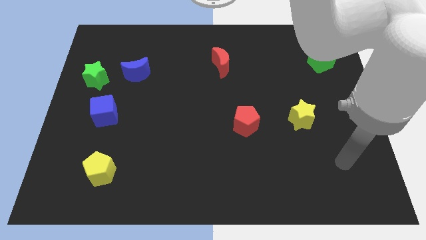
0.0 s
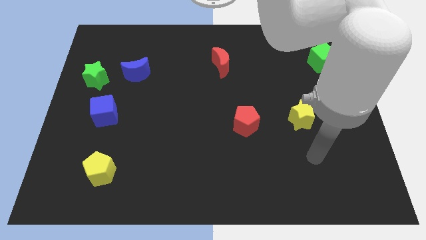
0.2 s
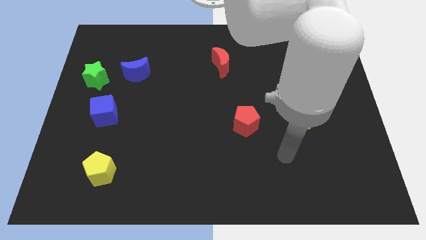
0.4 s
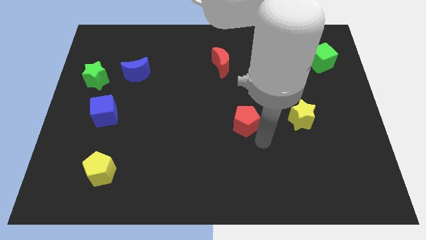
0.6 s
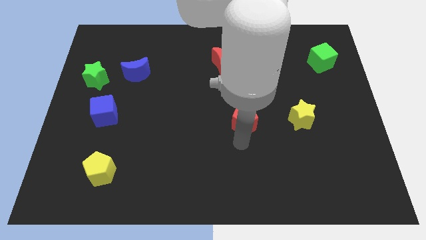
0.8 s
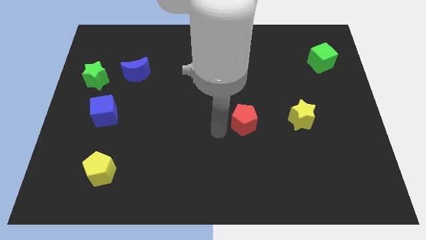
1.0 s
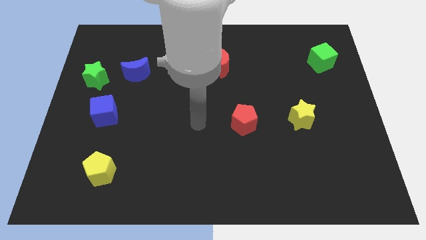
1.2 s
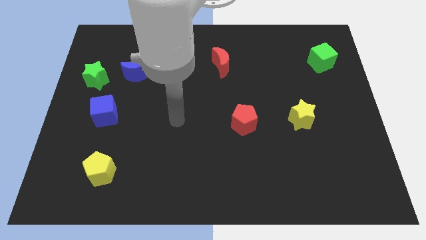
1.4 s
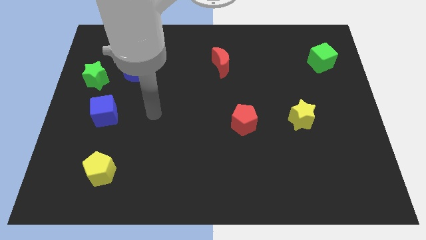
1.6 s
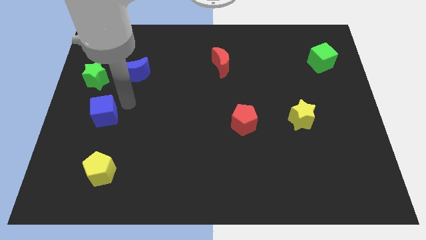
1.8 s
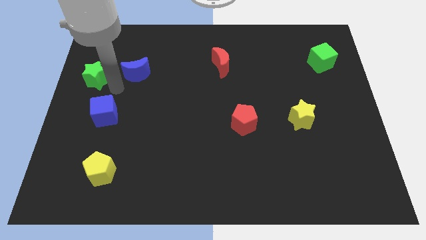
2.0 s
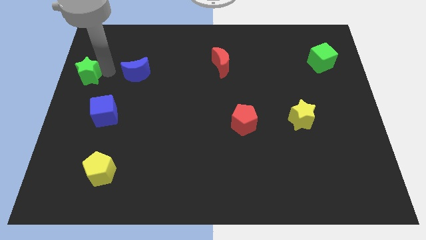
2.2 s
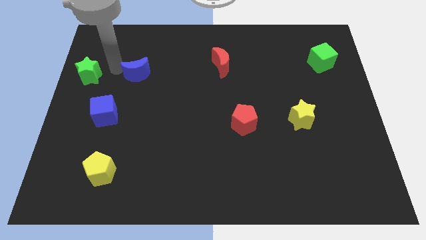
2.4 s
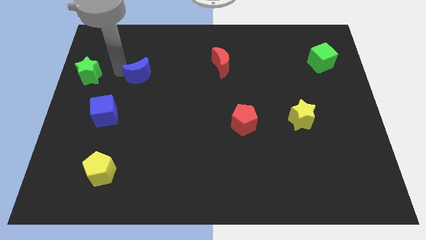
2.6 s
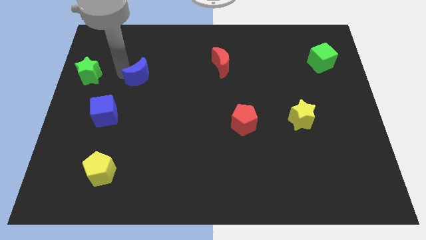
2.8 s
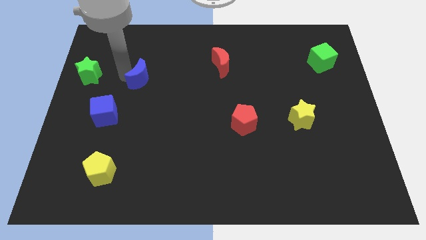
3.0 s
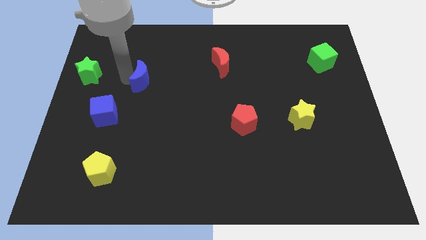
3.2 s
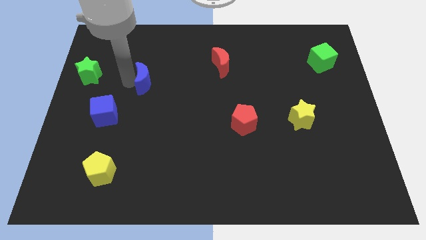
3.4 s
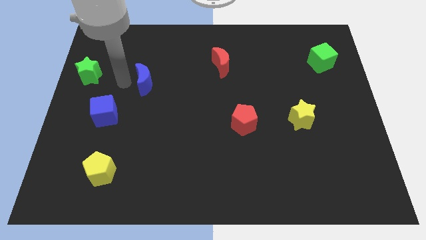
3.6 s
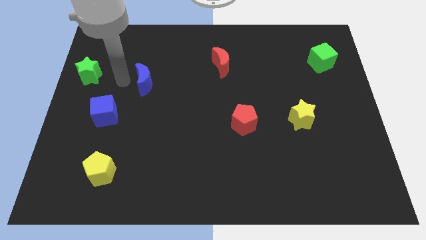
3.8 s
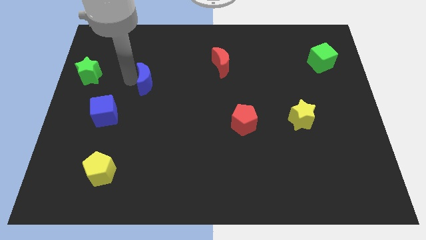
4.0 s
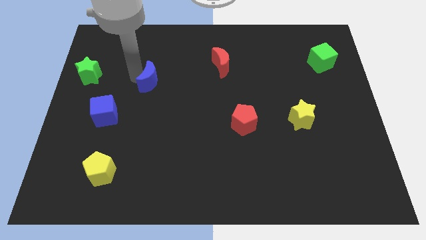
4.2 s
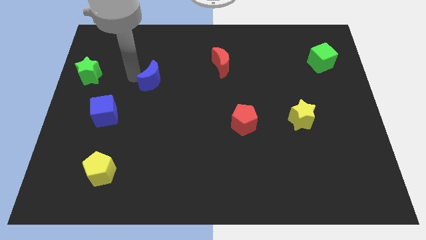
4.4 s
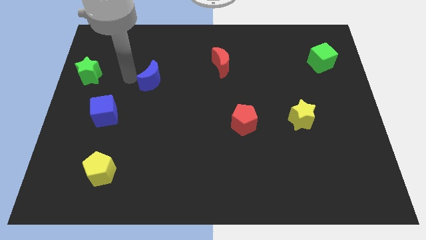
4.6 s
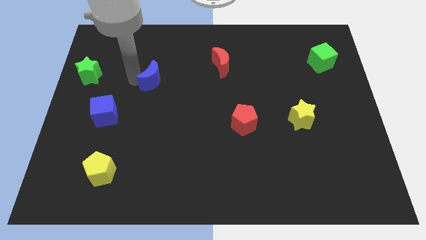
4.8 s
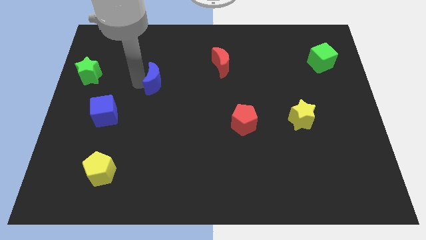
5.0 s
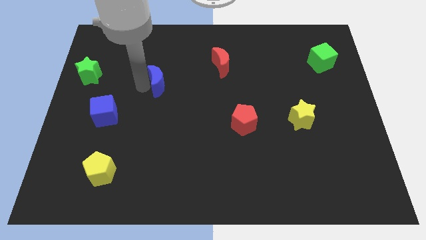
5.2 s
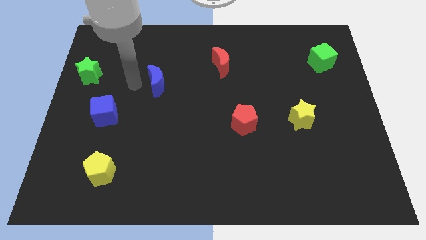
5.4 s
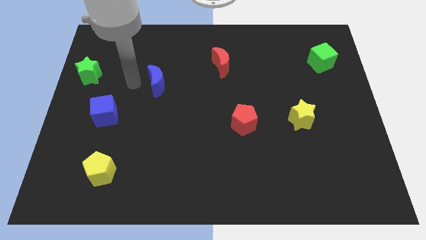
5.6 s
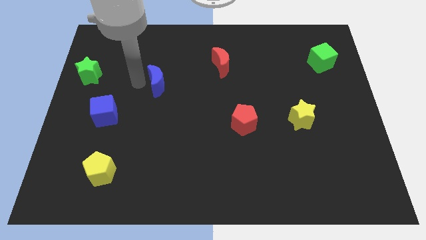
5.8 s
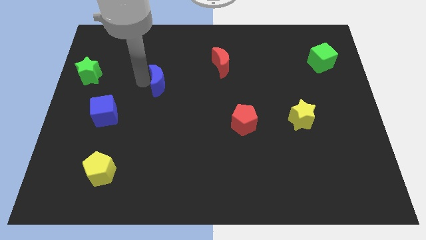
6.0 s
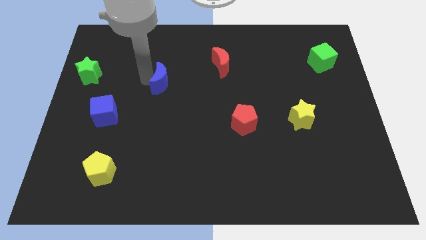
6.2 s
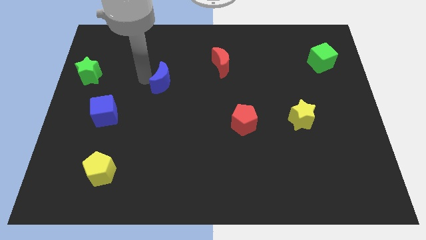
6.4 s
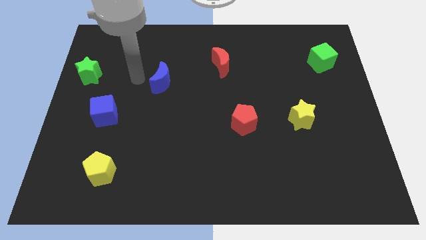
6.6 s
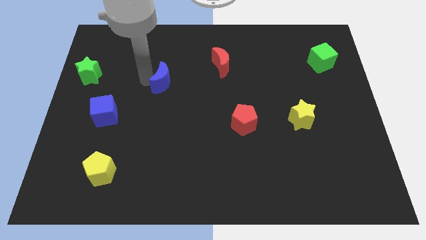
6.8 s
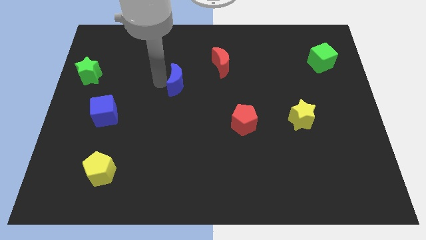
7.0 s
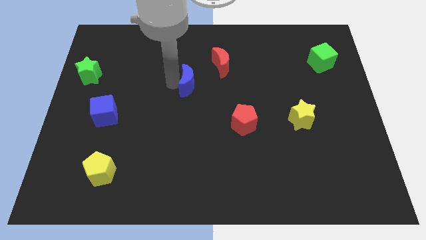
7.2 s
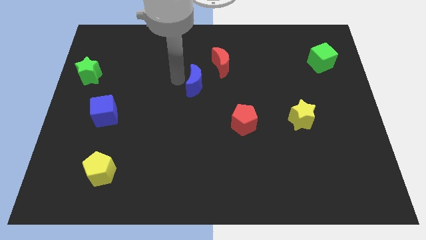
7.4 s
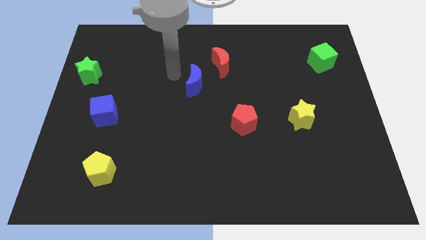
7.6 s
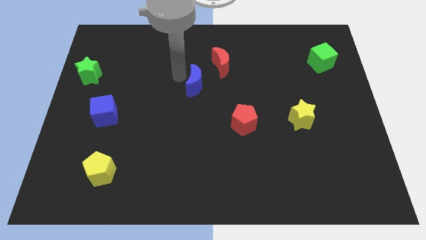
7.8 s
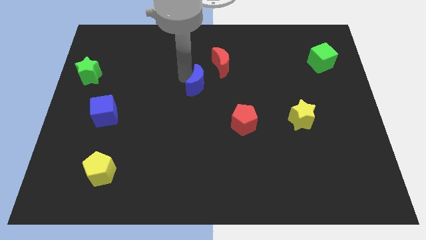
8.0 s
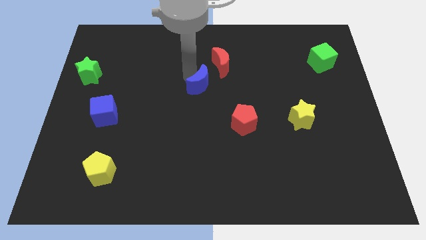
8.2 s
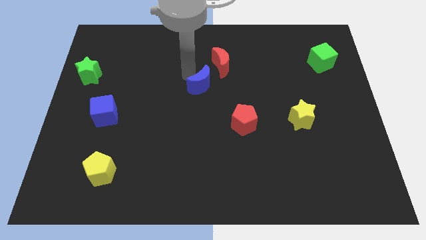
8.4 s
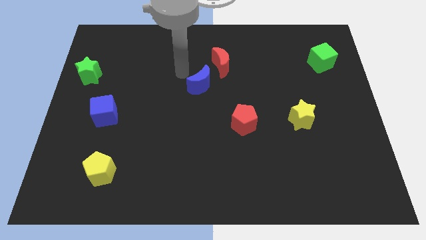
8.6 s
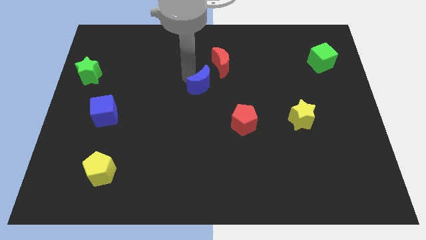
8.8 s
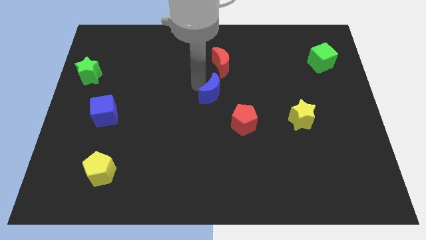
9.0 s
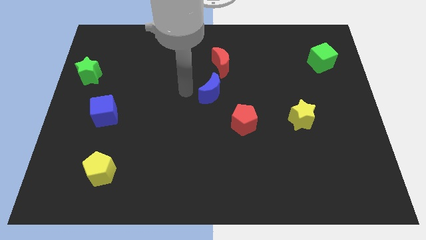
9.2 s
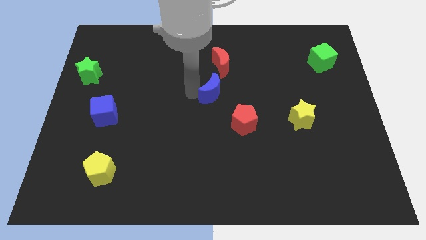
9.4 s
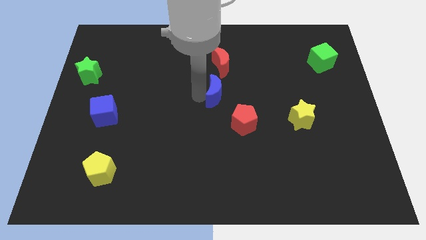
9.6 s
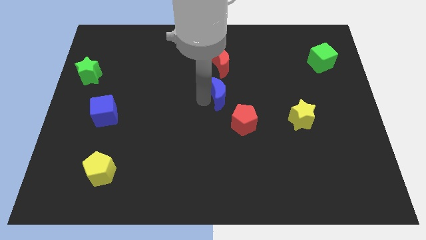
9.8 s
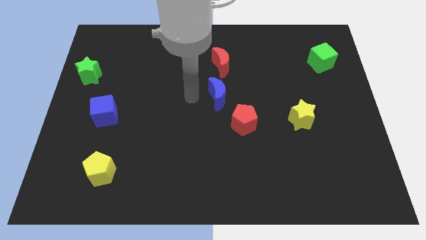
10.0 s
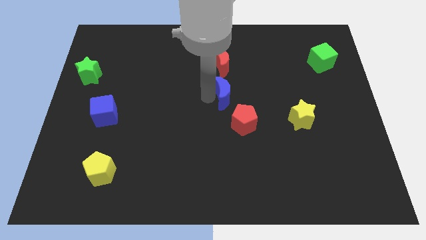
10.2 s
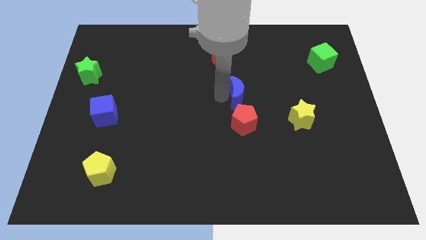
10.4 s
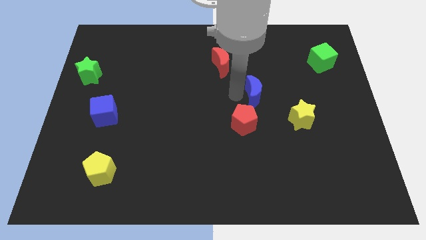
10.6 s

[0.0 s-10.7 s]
put the blue moon diagonally up and to the left of the yellow star

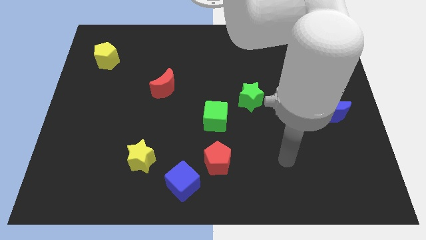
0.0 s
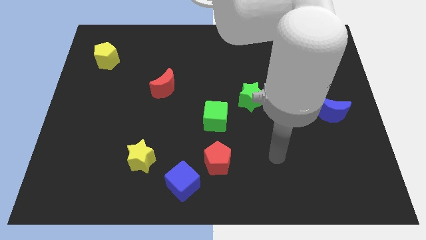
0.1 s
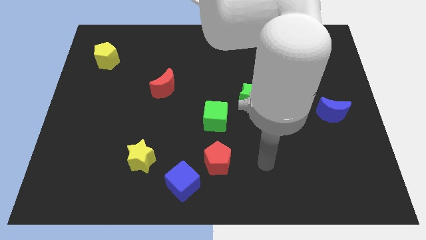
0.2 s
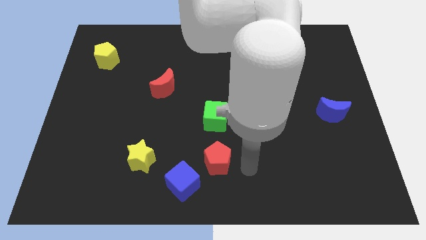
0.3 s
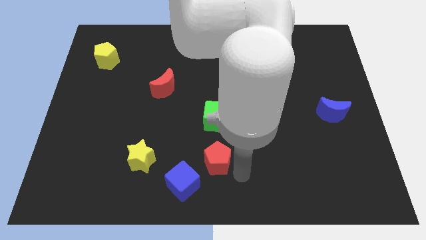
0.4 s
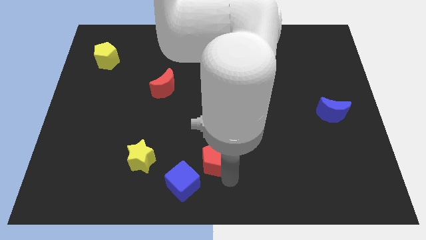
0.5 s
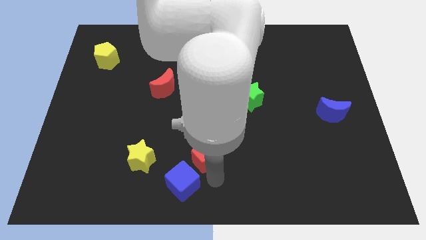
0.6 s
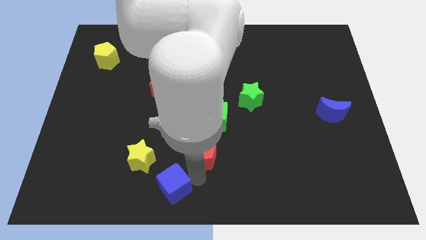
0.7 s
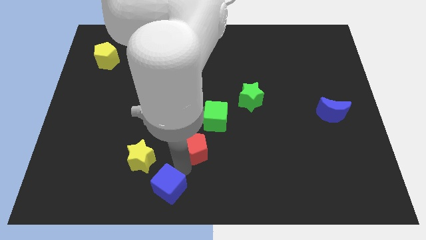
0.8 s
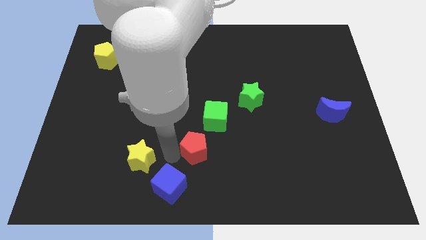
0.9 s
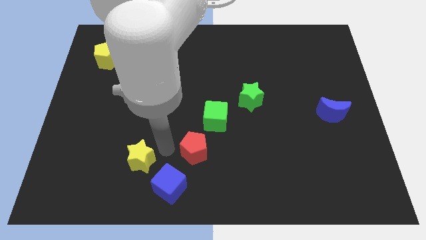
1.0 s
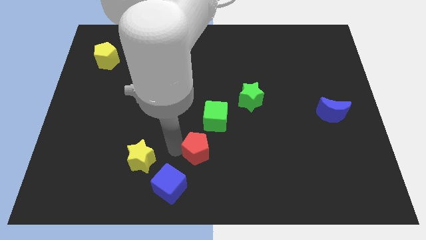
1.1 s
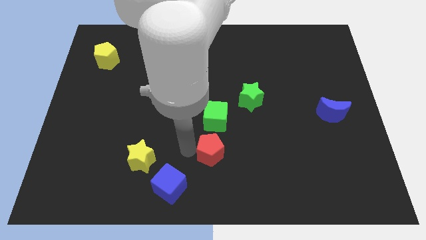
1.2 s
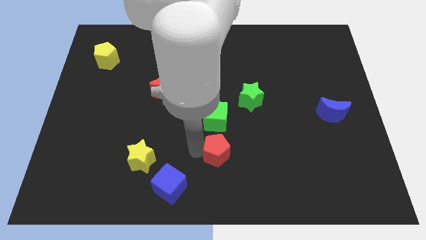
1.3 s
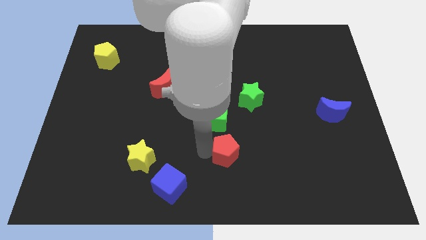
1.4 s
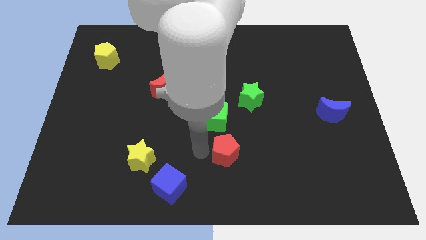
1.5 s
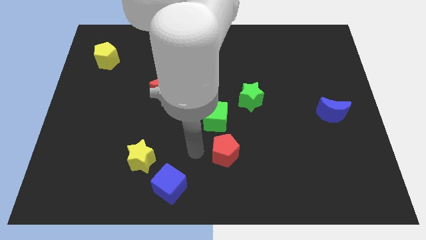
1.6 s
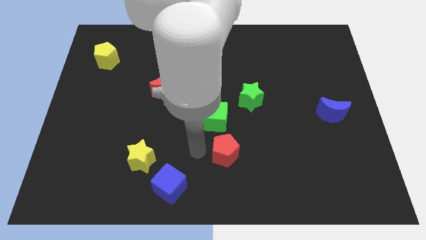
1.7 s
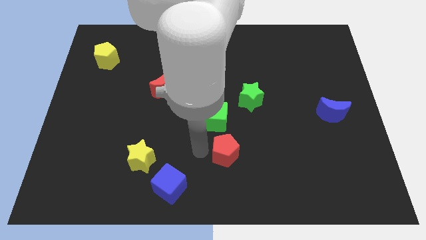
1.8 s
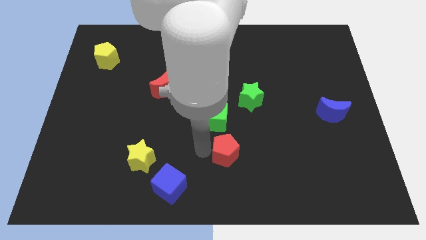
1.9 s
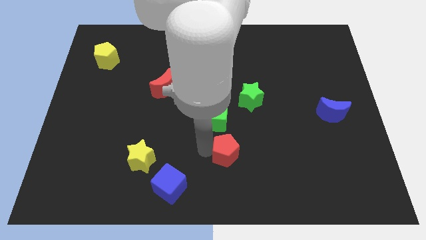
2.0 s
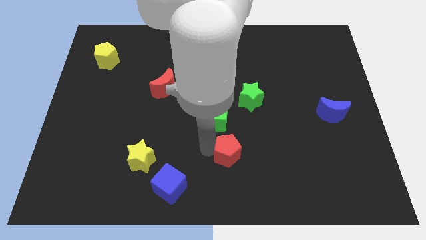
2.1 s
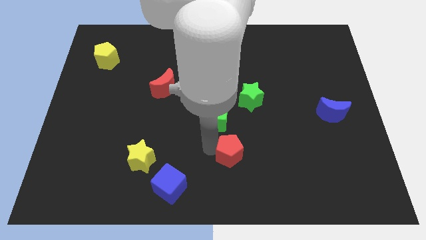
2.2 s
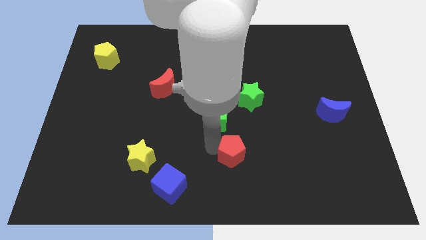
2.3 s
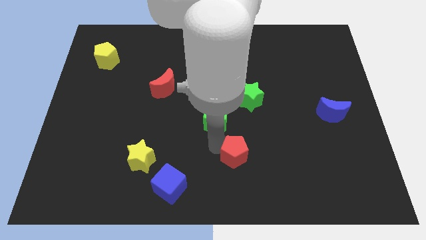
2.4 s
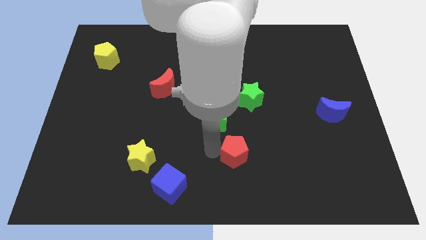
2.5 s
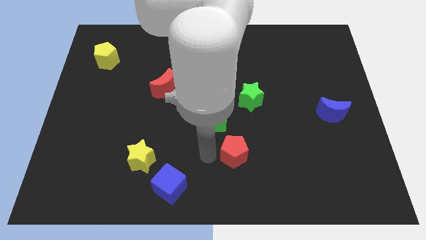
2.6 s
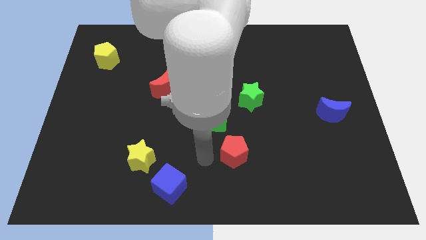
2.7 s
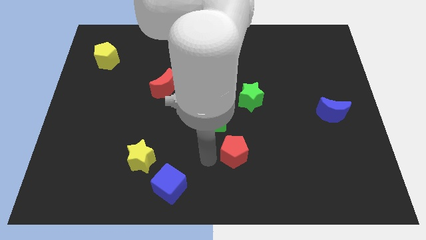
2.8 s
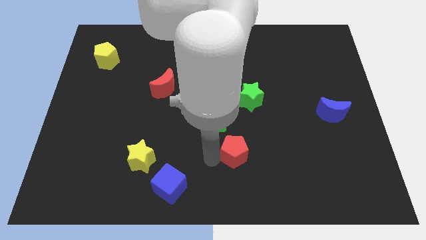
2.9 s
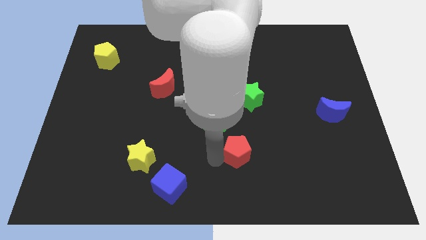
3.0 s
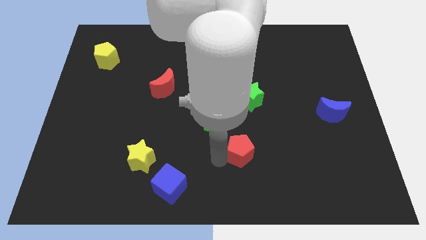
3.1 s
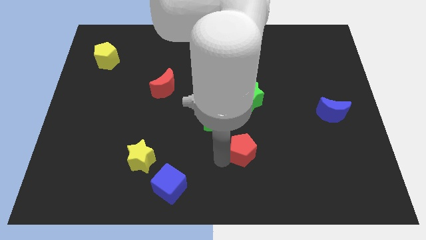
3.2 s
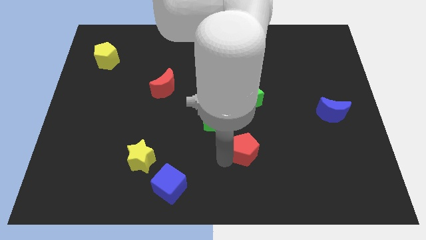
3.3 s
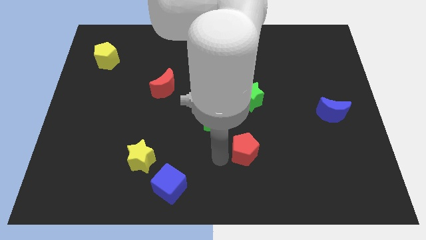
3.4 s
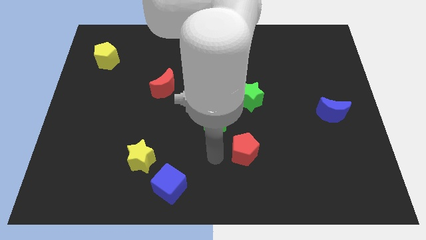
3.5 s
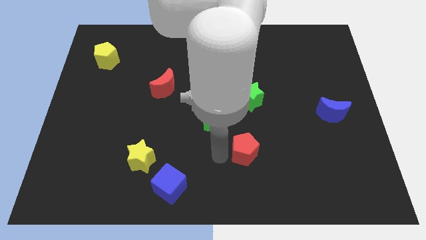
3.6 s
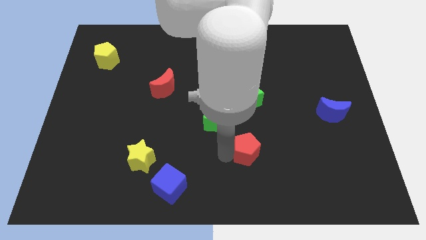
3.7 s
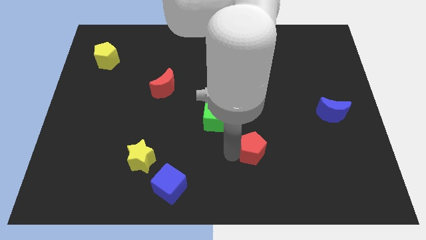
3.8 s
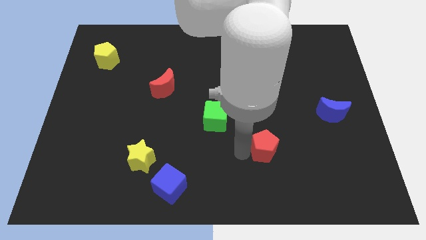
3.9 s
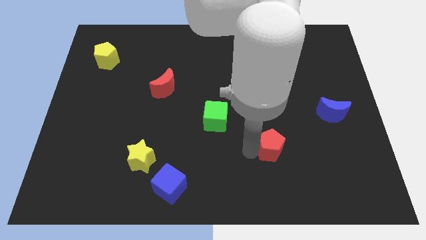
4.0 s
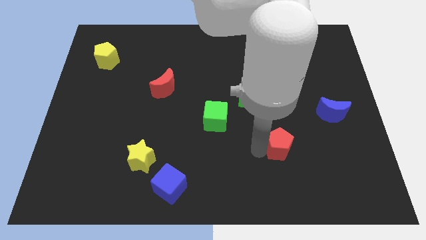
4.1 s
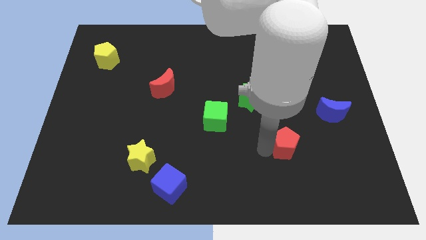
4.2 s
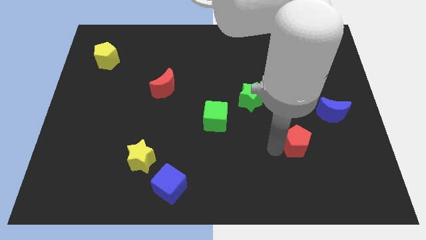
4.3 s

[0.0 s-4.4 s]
push the red pentagon to the bottom left side of the blue moon
